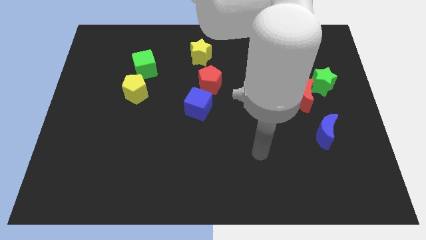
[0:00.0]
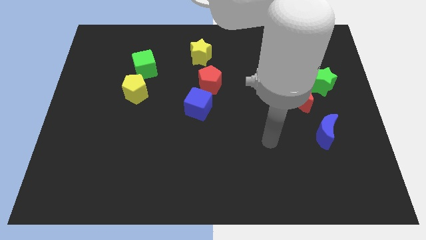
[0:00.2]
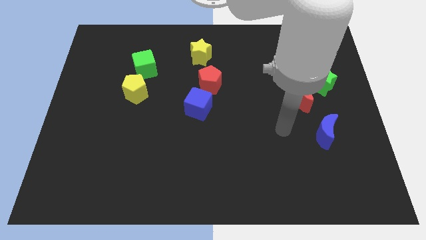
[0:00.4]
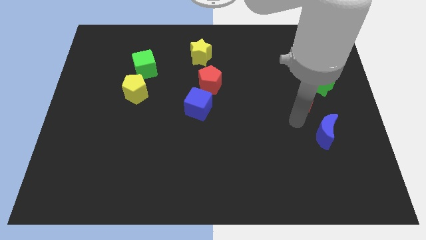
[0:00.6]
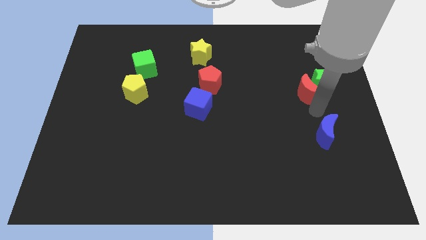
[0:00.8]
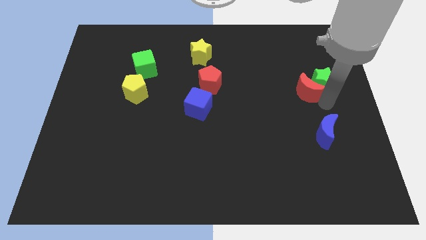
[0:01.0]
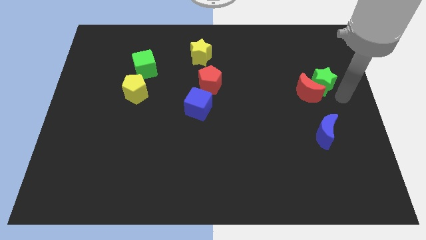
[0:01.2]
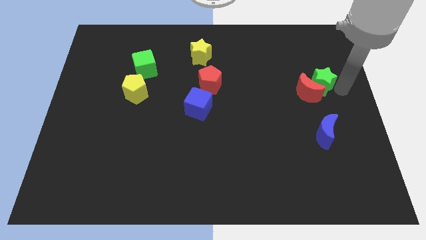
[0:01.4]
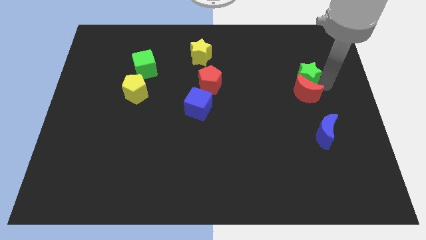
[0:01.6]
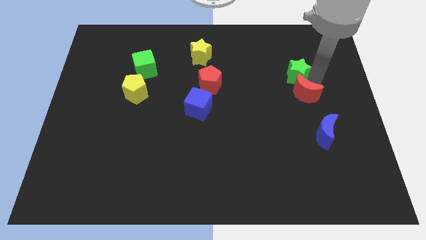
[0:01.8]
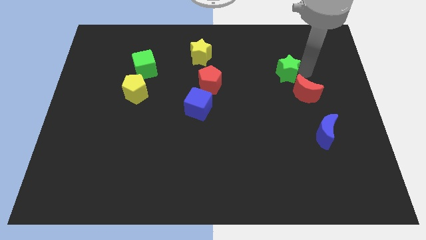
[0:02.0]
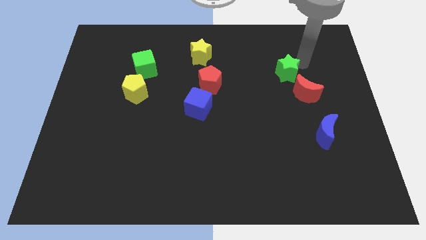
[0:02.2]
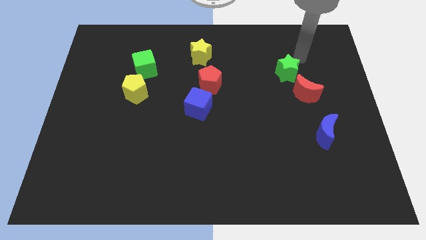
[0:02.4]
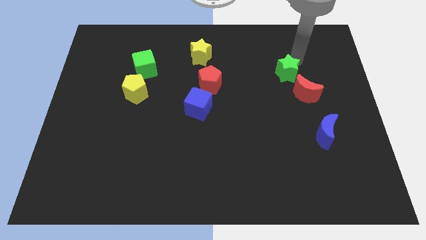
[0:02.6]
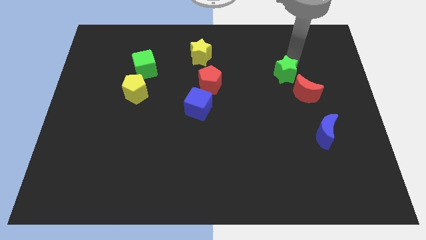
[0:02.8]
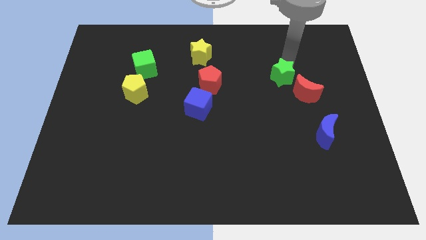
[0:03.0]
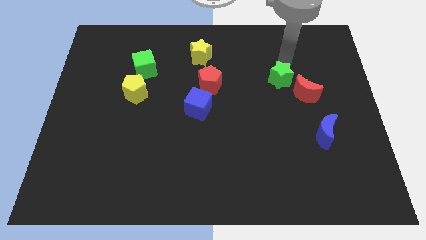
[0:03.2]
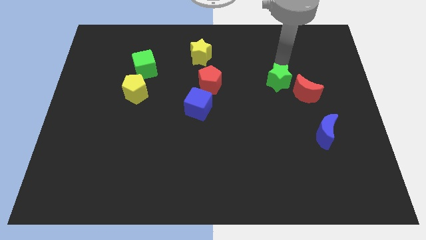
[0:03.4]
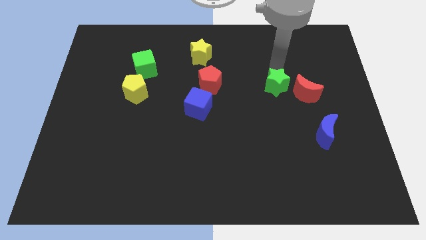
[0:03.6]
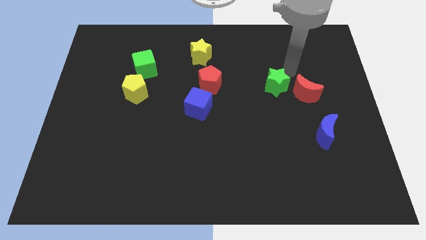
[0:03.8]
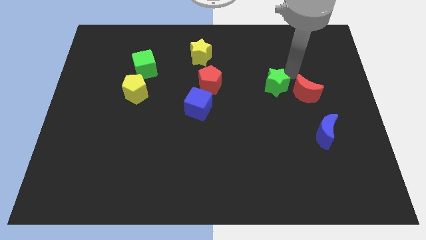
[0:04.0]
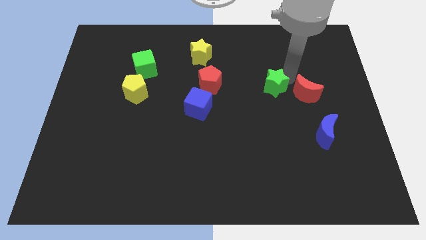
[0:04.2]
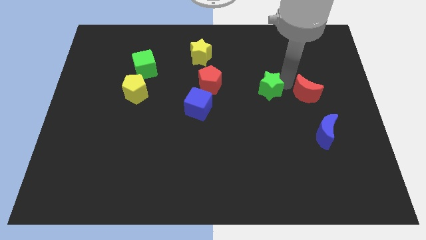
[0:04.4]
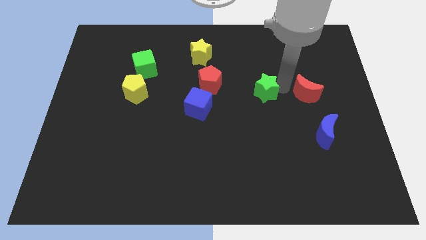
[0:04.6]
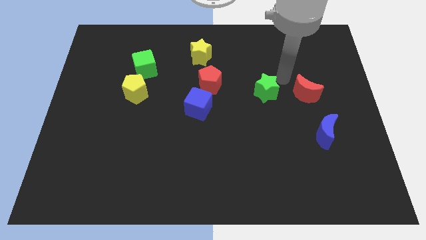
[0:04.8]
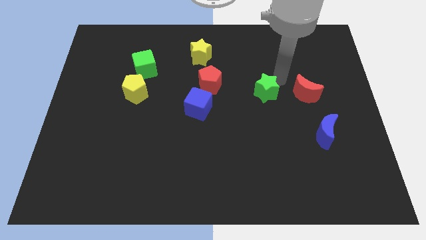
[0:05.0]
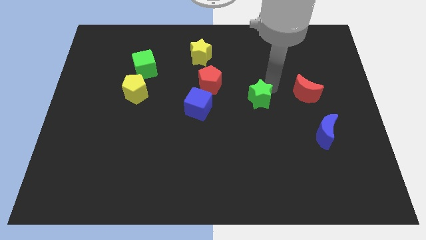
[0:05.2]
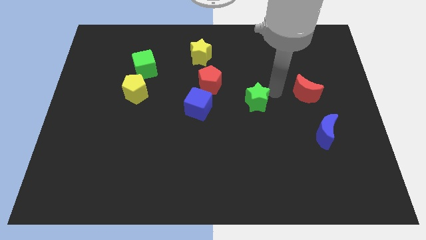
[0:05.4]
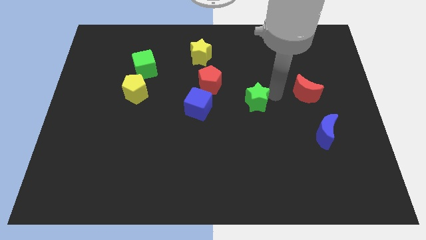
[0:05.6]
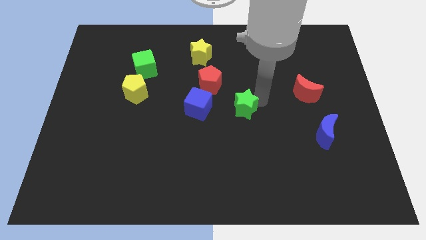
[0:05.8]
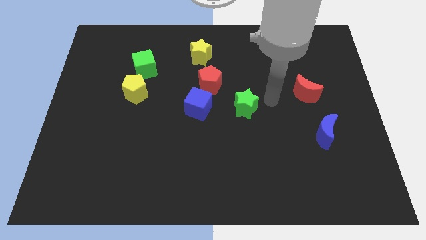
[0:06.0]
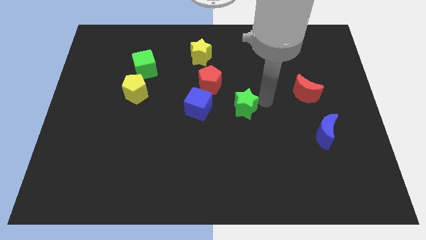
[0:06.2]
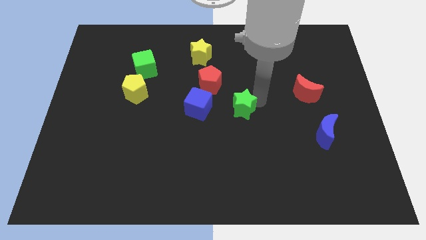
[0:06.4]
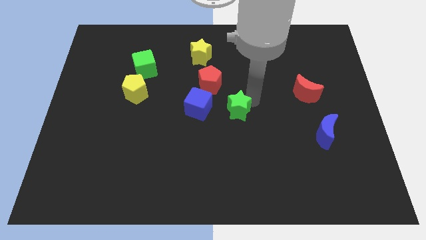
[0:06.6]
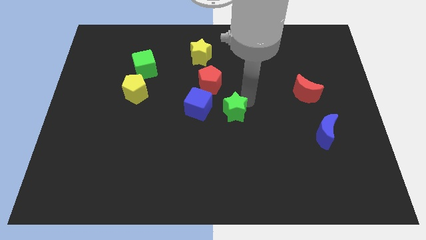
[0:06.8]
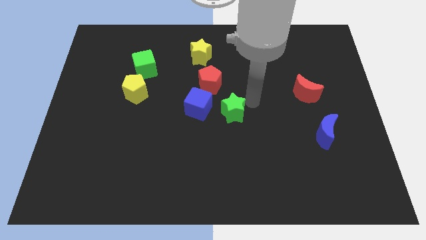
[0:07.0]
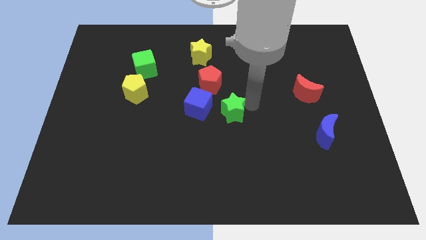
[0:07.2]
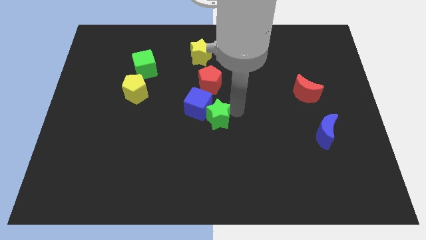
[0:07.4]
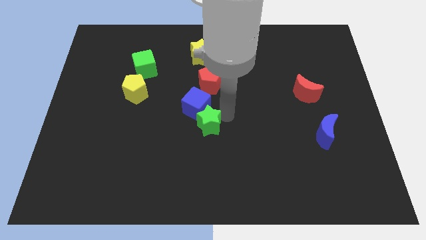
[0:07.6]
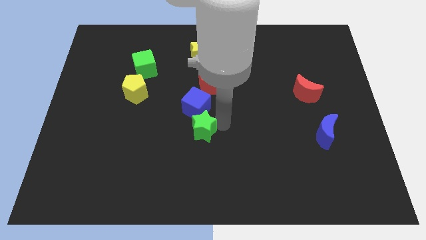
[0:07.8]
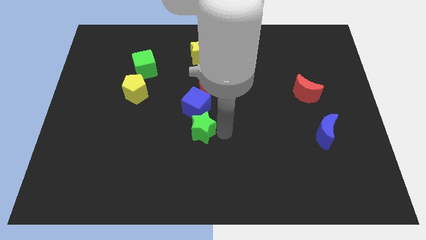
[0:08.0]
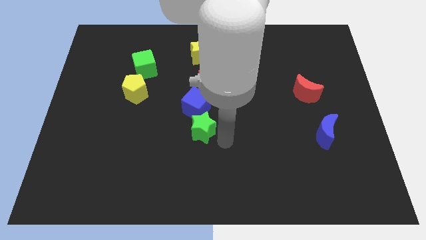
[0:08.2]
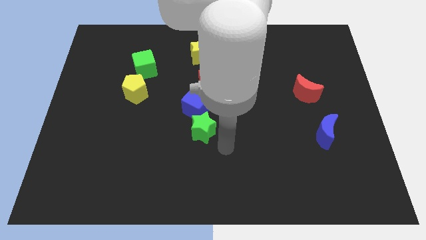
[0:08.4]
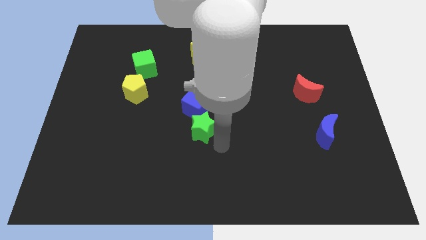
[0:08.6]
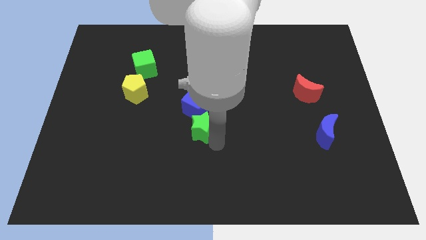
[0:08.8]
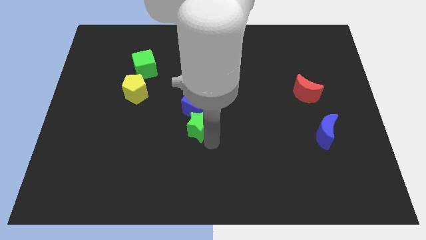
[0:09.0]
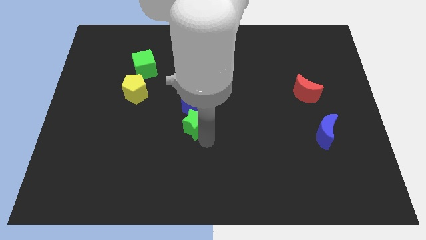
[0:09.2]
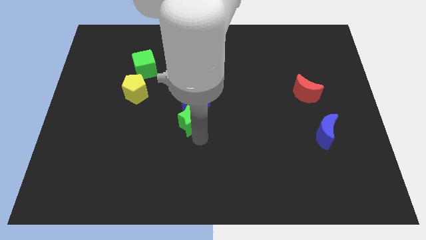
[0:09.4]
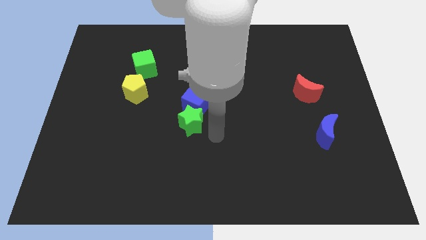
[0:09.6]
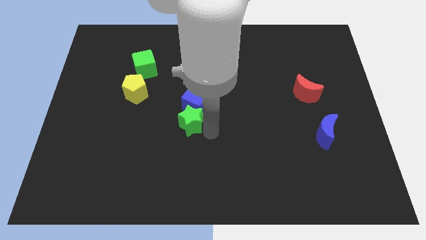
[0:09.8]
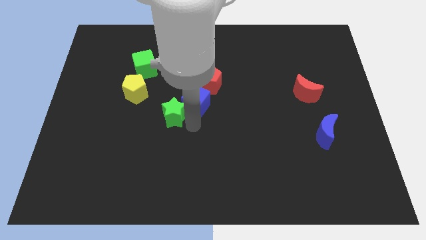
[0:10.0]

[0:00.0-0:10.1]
slide the green star to the bottom right side of the yellow pentagon

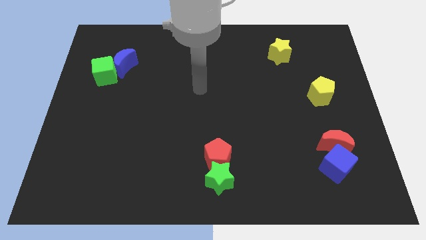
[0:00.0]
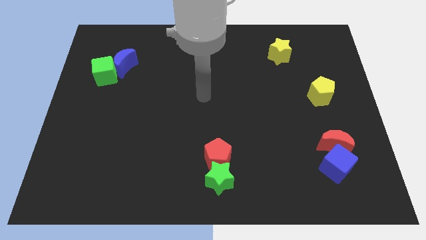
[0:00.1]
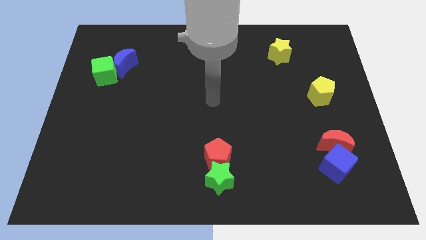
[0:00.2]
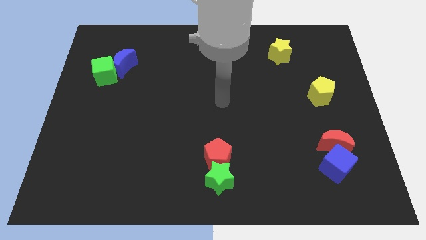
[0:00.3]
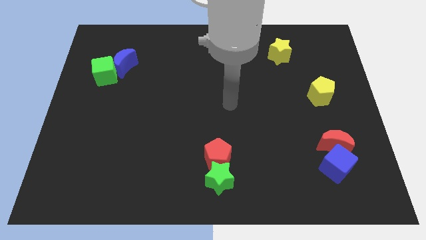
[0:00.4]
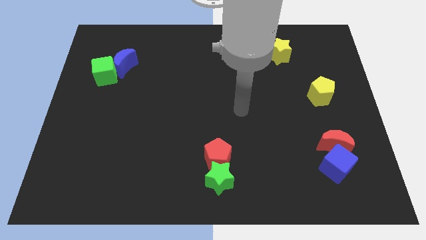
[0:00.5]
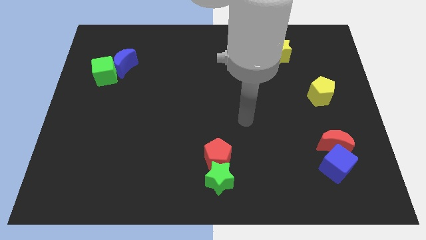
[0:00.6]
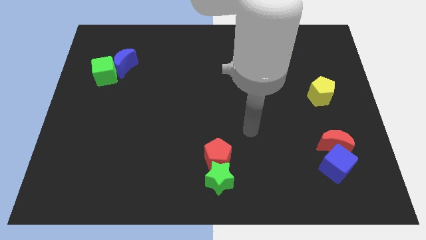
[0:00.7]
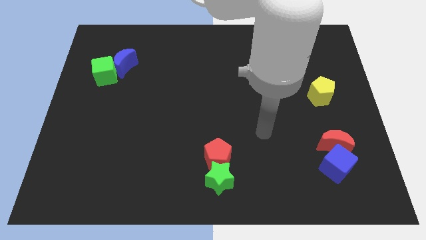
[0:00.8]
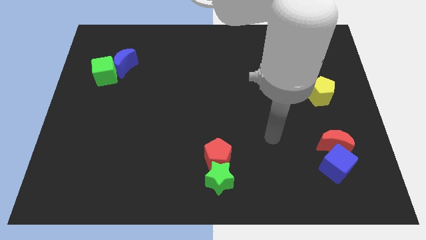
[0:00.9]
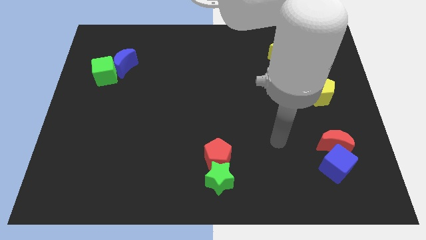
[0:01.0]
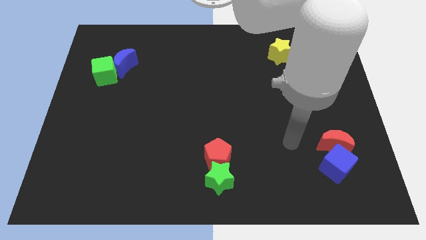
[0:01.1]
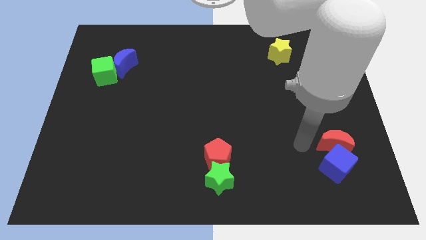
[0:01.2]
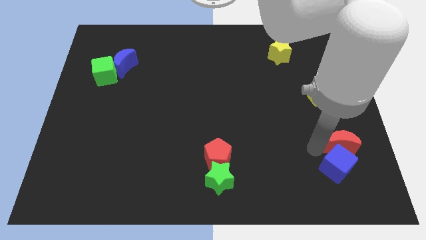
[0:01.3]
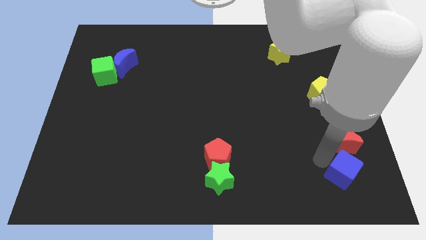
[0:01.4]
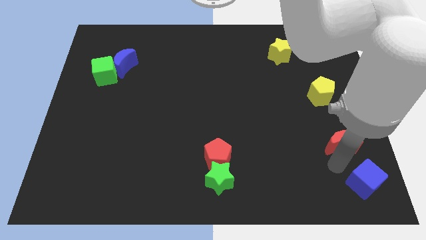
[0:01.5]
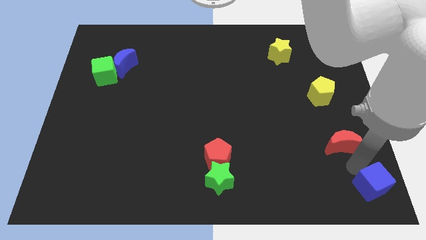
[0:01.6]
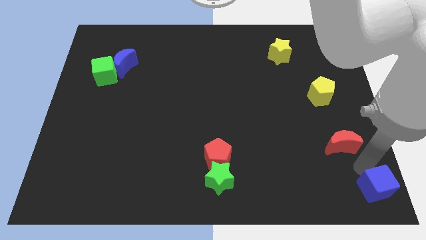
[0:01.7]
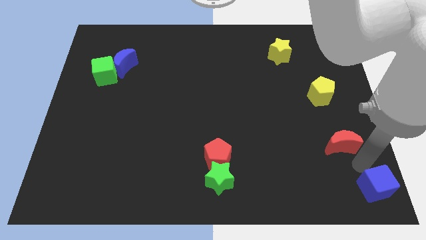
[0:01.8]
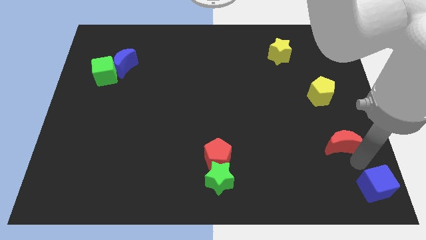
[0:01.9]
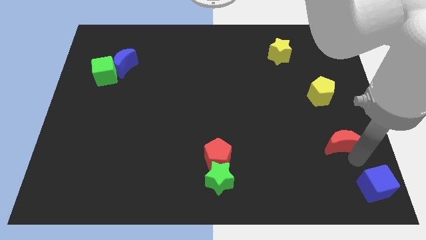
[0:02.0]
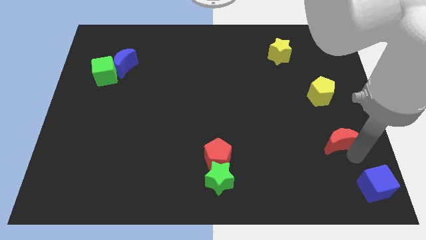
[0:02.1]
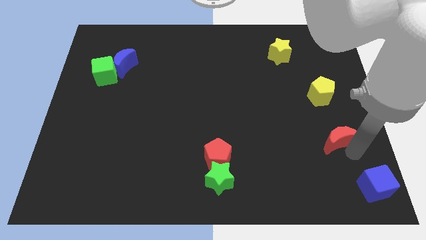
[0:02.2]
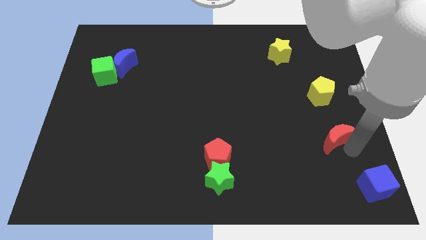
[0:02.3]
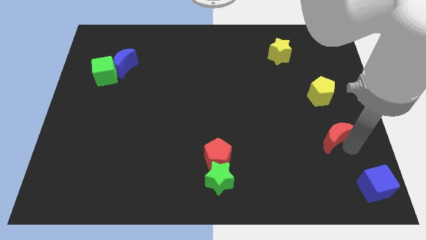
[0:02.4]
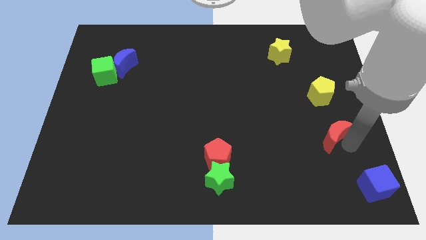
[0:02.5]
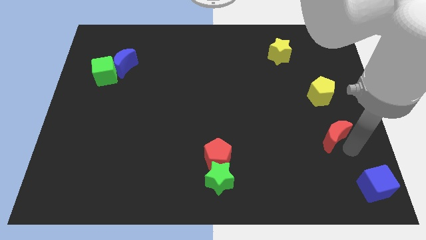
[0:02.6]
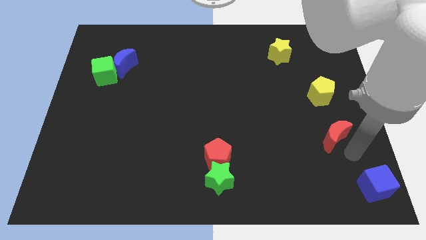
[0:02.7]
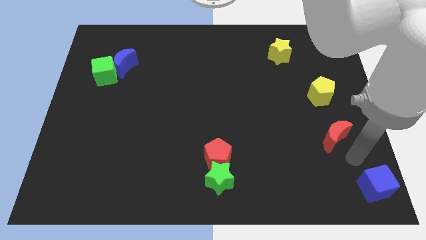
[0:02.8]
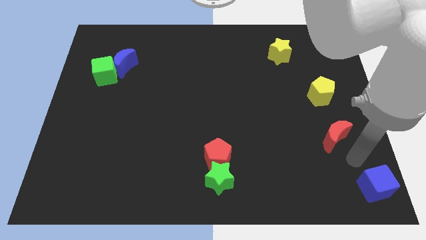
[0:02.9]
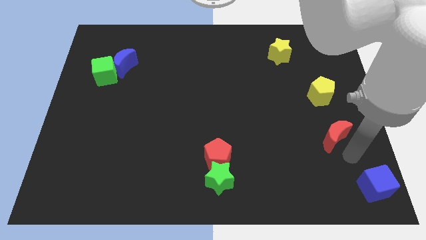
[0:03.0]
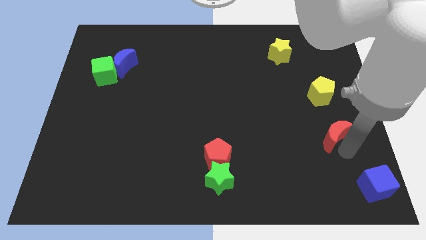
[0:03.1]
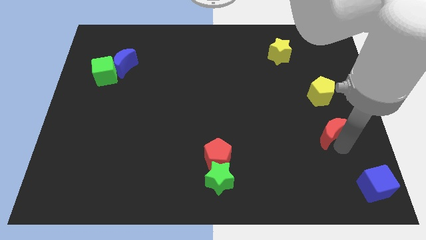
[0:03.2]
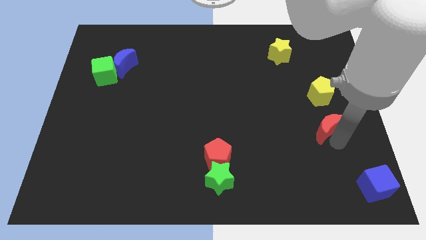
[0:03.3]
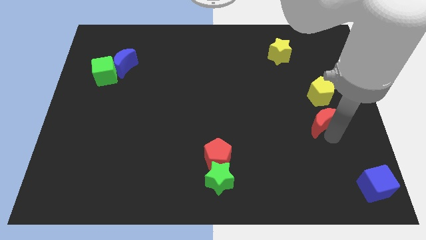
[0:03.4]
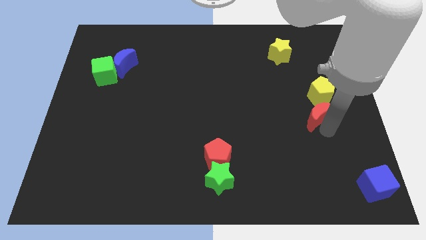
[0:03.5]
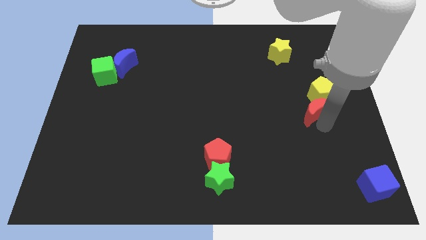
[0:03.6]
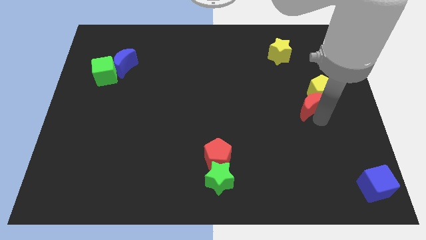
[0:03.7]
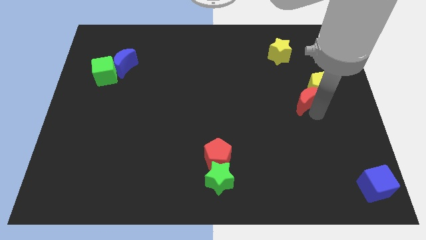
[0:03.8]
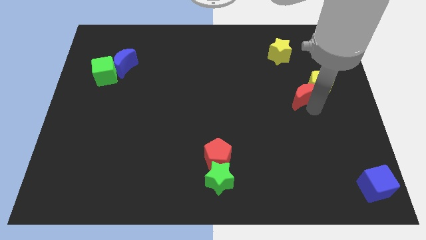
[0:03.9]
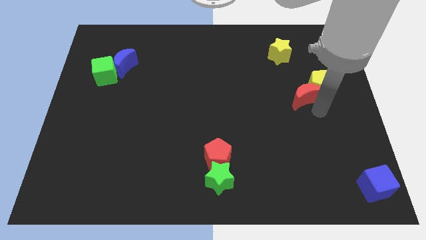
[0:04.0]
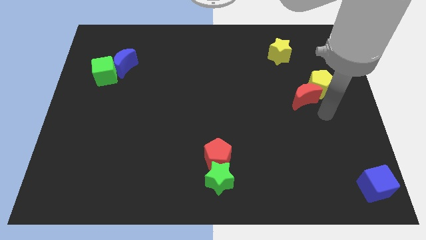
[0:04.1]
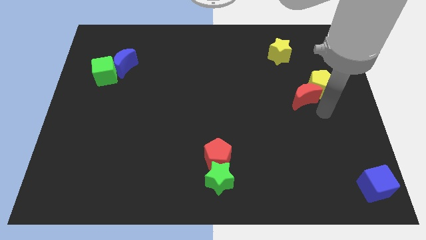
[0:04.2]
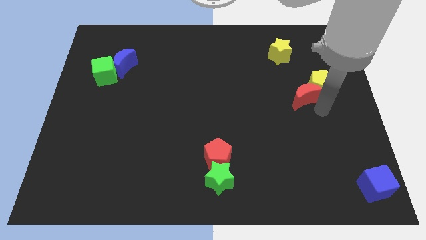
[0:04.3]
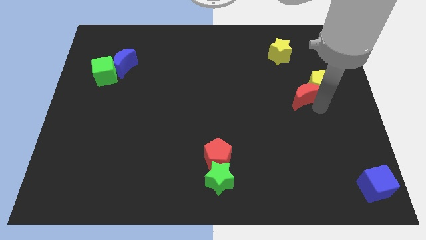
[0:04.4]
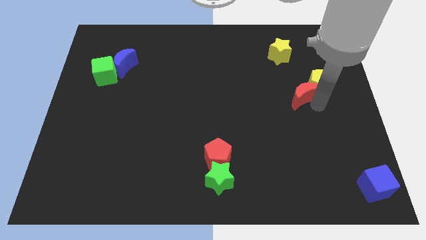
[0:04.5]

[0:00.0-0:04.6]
slide the red moon to the bottom side of the yellow star
